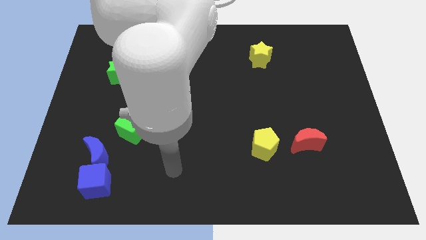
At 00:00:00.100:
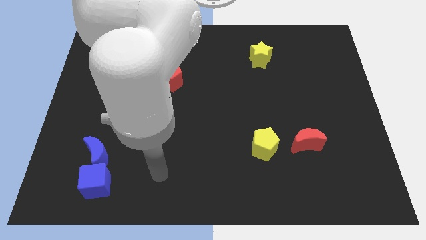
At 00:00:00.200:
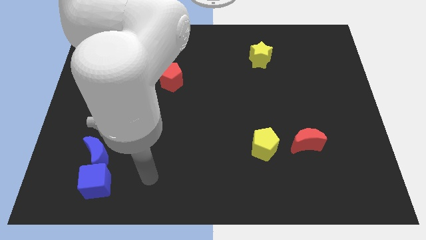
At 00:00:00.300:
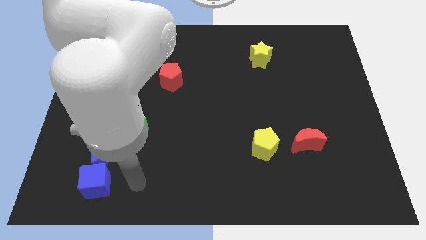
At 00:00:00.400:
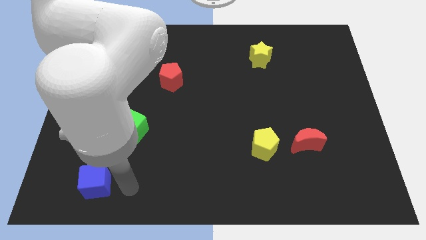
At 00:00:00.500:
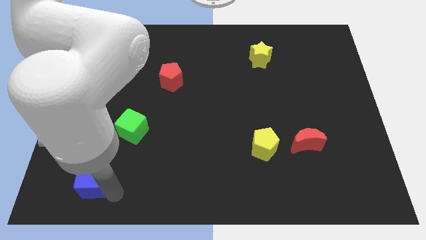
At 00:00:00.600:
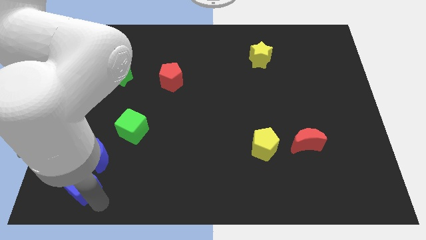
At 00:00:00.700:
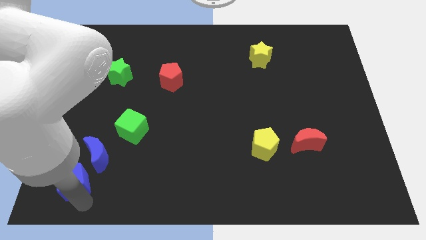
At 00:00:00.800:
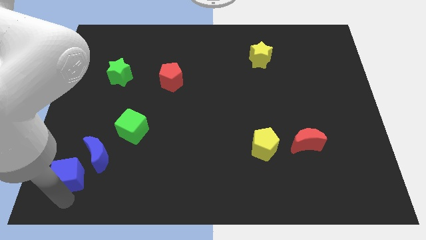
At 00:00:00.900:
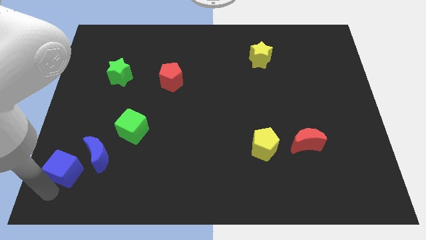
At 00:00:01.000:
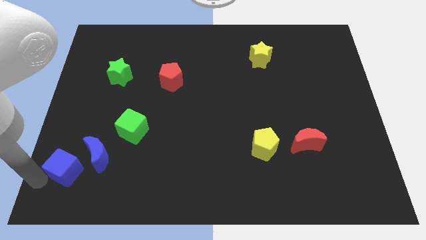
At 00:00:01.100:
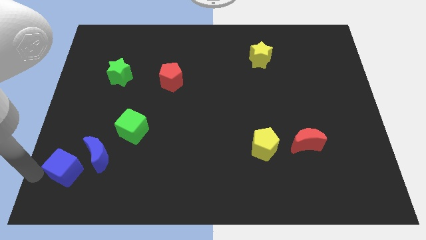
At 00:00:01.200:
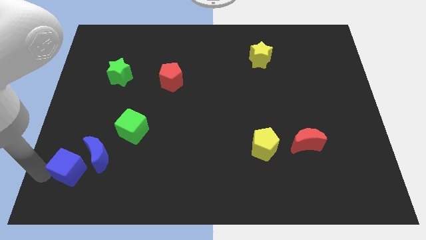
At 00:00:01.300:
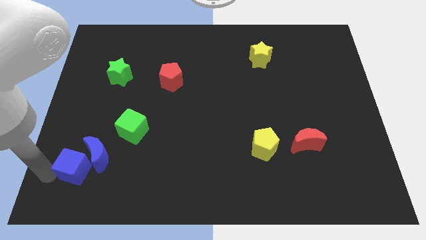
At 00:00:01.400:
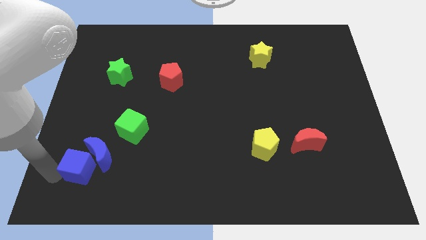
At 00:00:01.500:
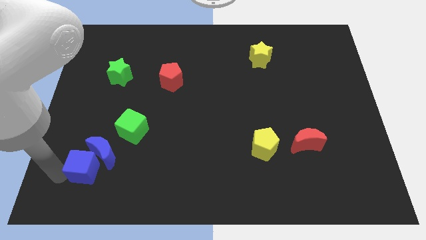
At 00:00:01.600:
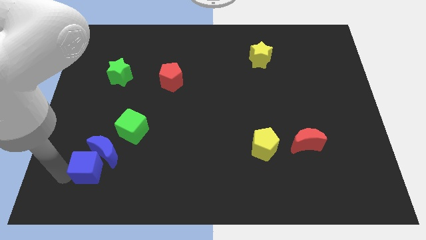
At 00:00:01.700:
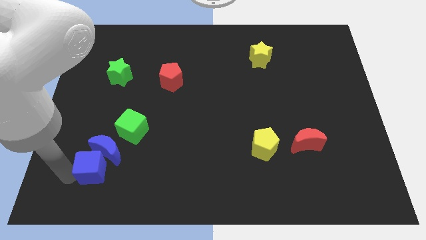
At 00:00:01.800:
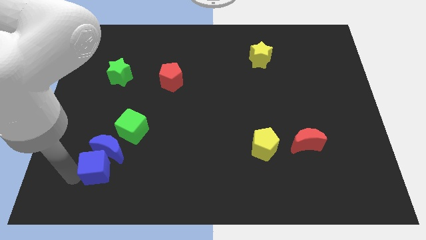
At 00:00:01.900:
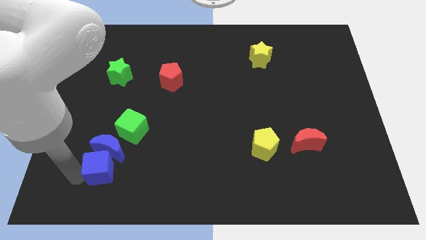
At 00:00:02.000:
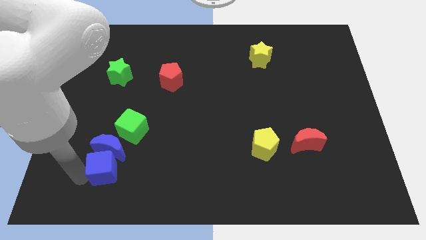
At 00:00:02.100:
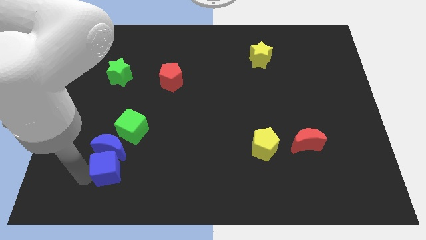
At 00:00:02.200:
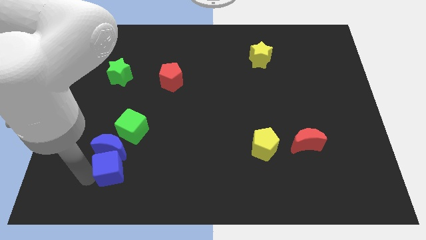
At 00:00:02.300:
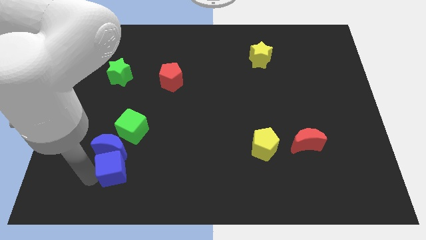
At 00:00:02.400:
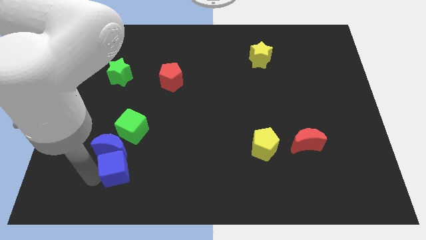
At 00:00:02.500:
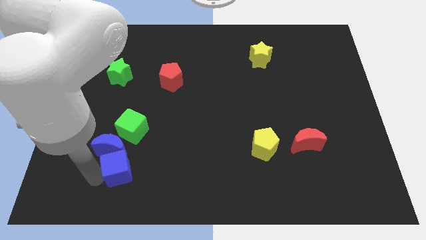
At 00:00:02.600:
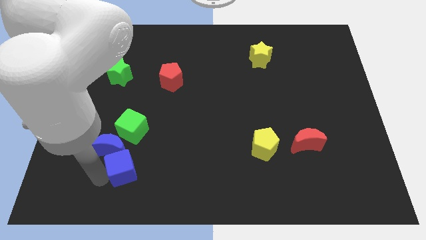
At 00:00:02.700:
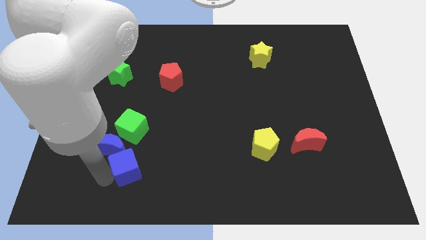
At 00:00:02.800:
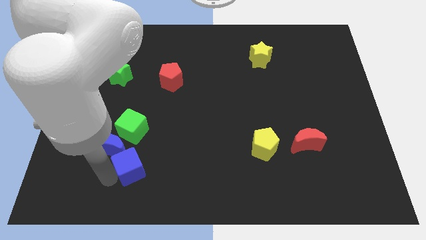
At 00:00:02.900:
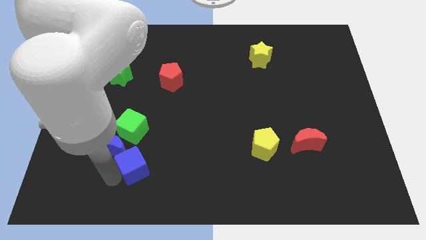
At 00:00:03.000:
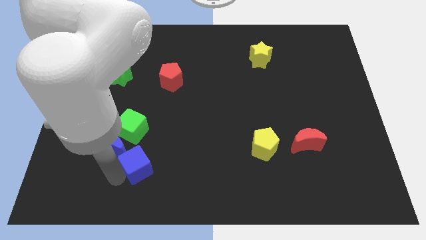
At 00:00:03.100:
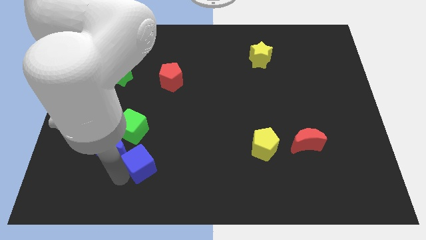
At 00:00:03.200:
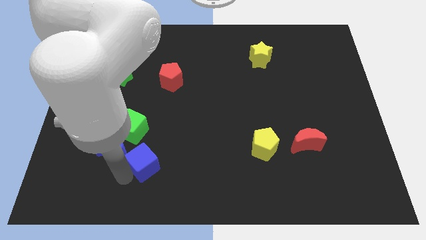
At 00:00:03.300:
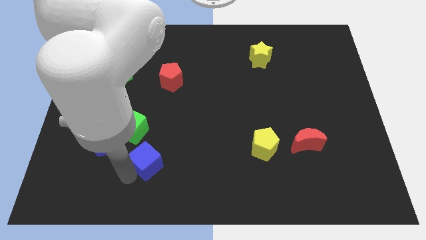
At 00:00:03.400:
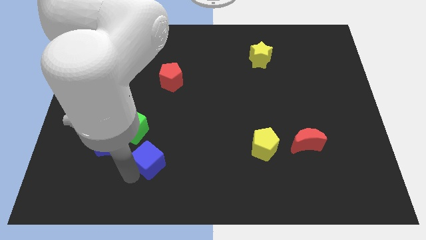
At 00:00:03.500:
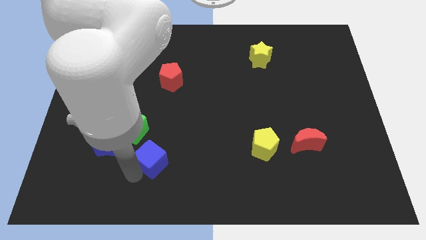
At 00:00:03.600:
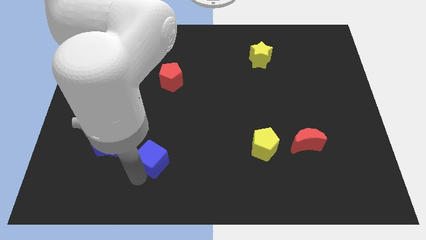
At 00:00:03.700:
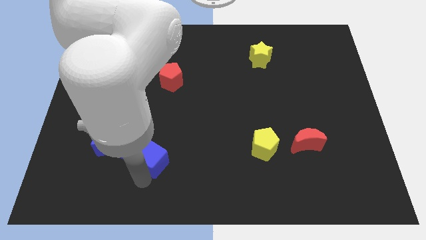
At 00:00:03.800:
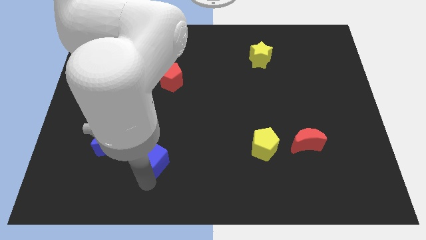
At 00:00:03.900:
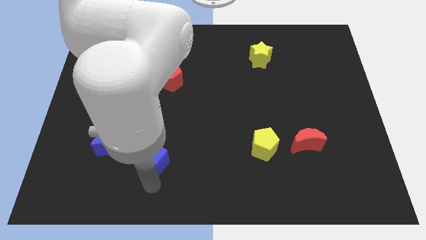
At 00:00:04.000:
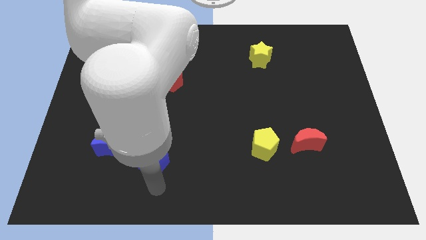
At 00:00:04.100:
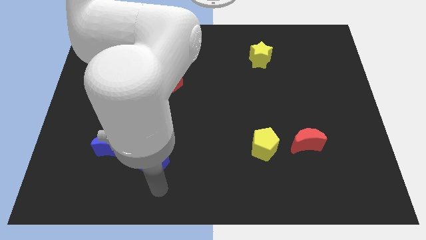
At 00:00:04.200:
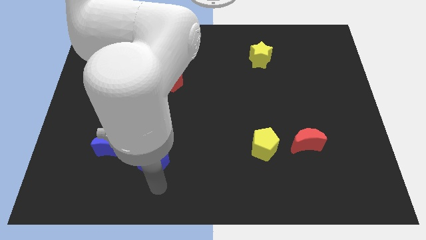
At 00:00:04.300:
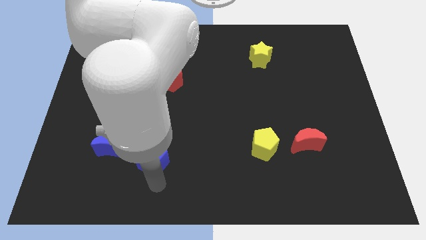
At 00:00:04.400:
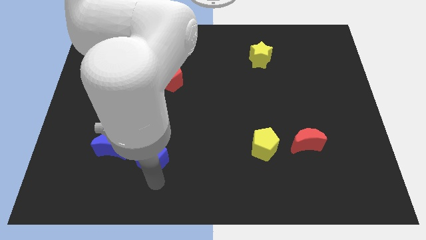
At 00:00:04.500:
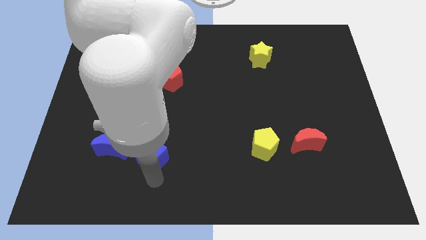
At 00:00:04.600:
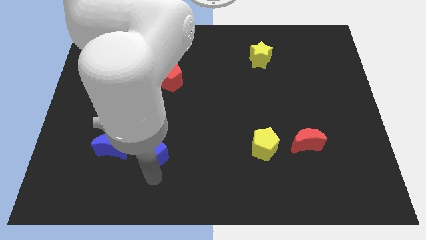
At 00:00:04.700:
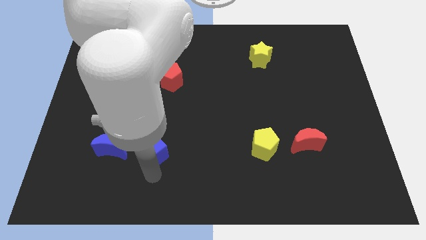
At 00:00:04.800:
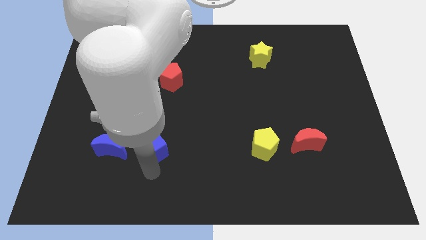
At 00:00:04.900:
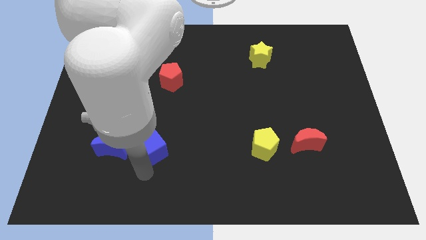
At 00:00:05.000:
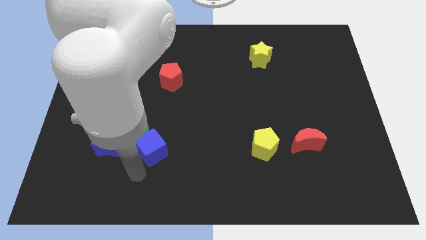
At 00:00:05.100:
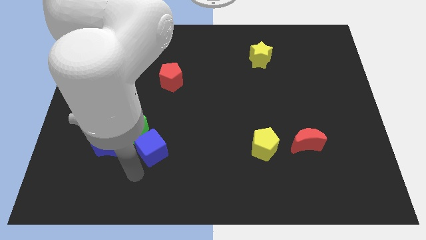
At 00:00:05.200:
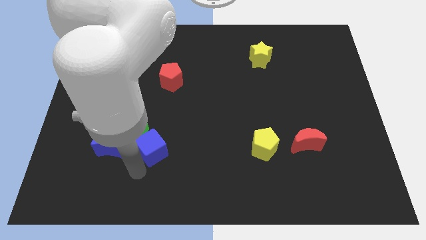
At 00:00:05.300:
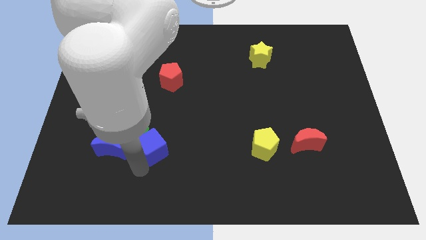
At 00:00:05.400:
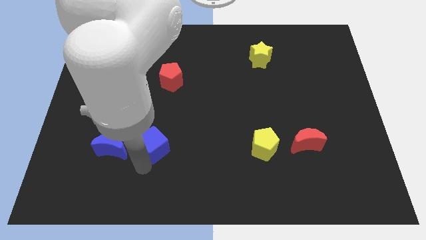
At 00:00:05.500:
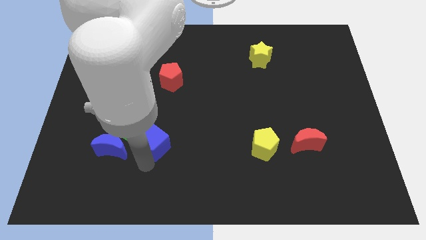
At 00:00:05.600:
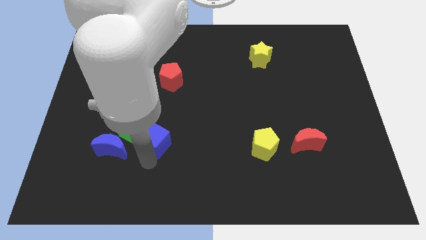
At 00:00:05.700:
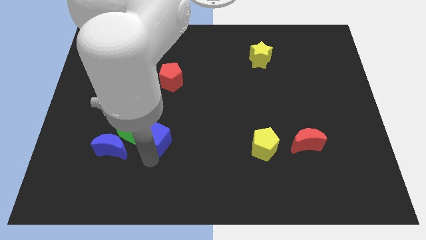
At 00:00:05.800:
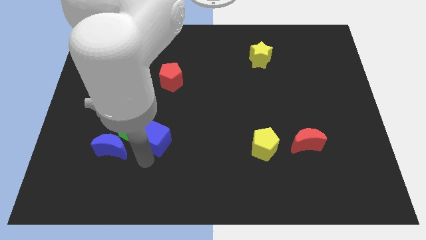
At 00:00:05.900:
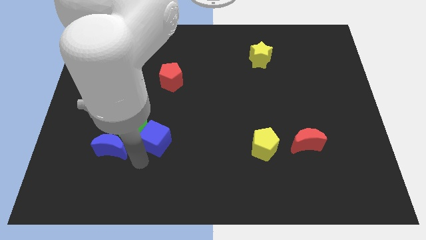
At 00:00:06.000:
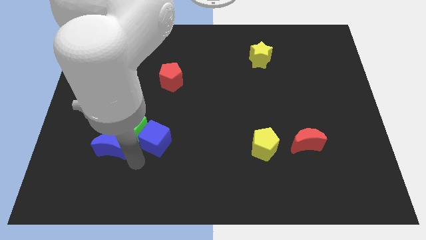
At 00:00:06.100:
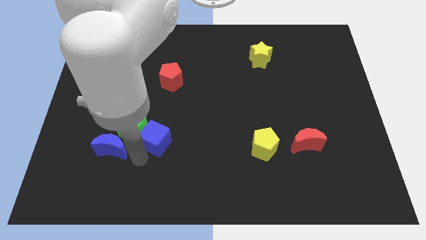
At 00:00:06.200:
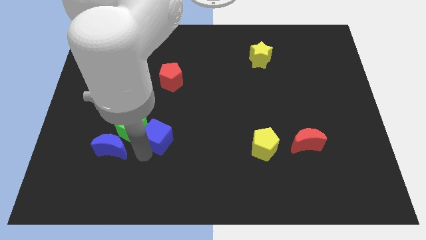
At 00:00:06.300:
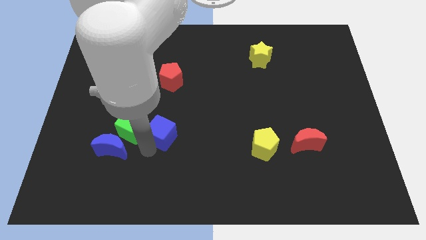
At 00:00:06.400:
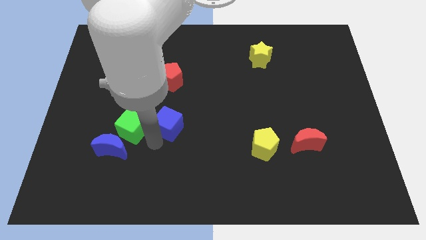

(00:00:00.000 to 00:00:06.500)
slide the blue cube to the middle of the board
